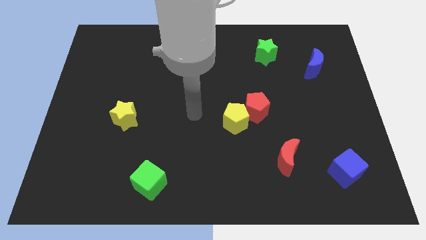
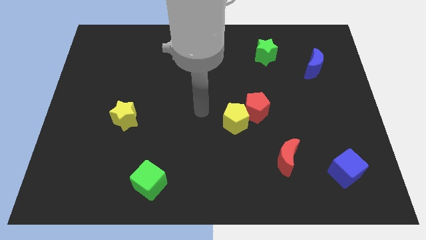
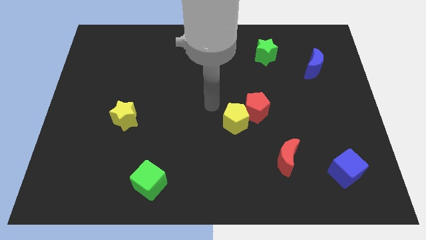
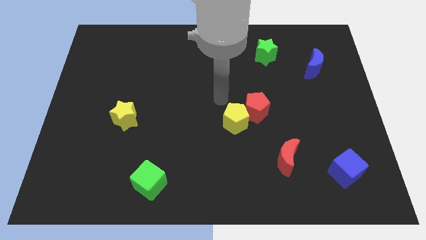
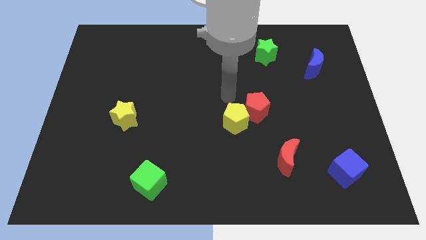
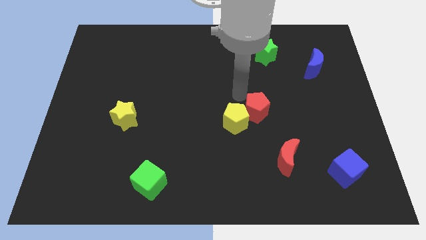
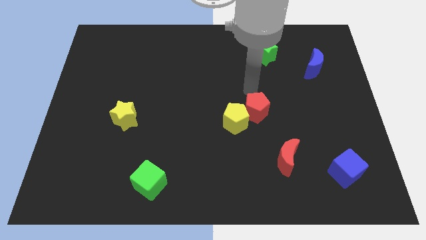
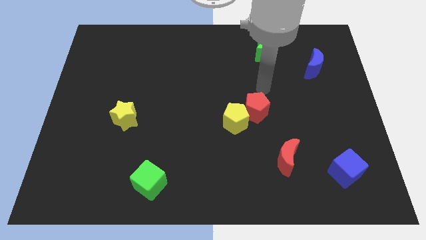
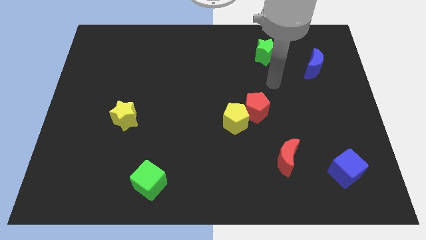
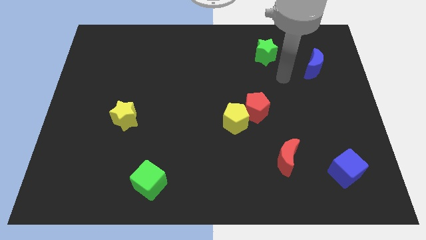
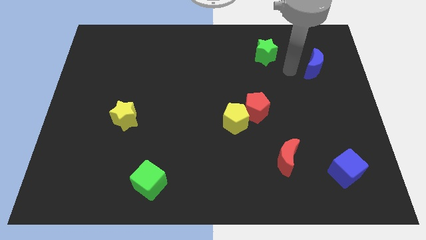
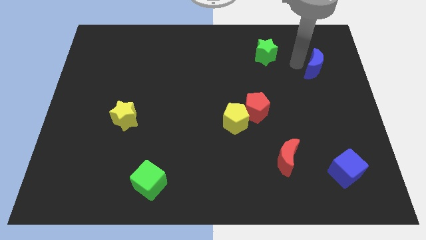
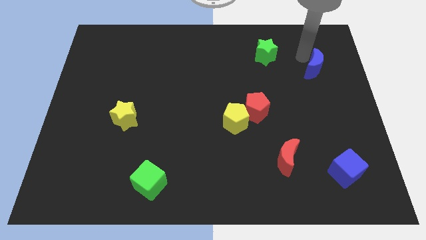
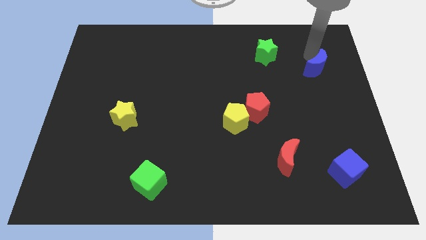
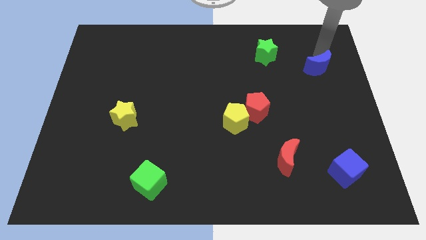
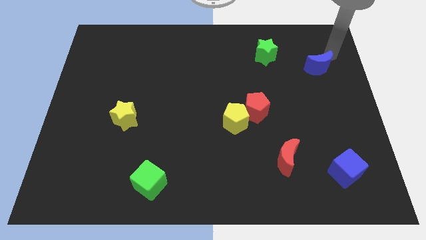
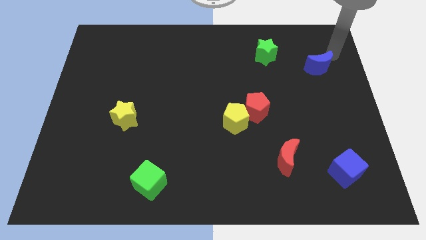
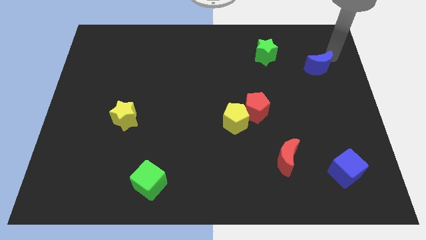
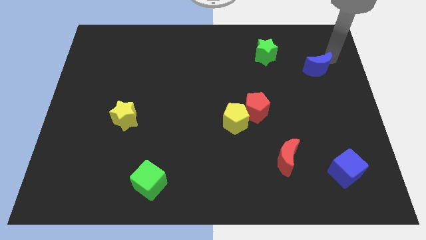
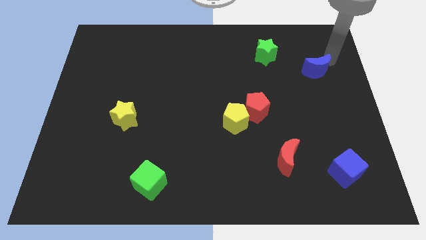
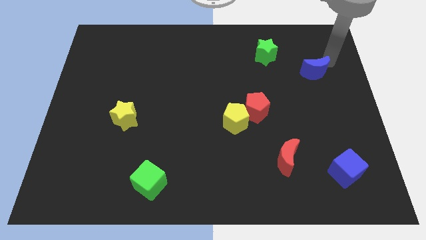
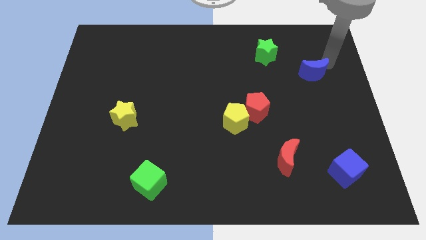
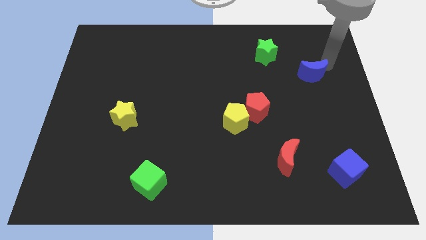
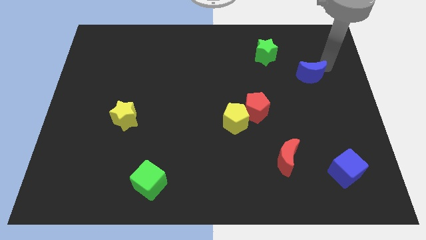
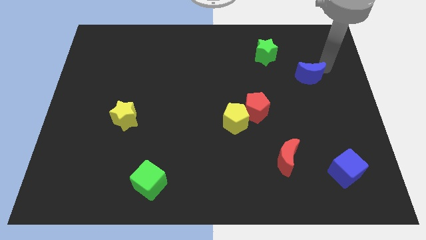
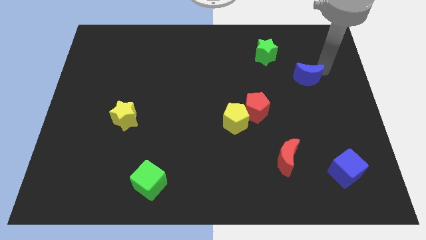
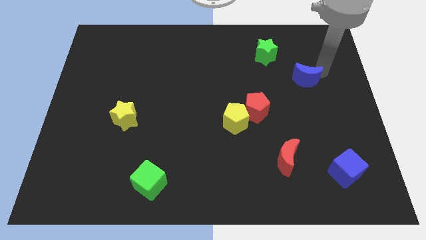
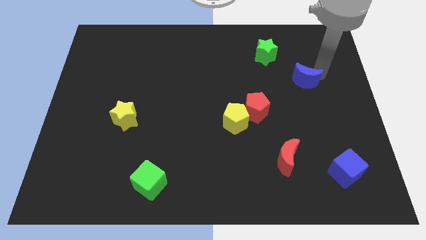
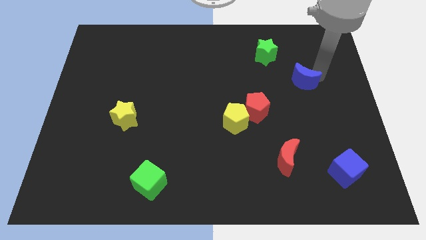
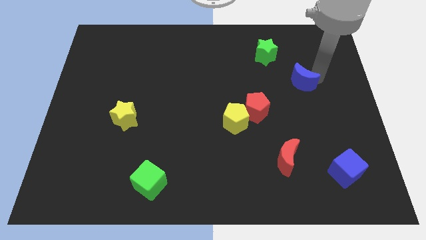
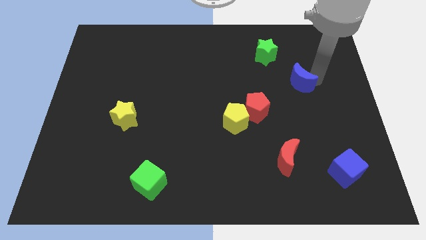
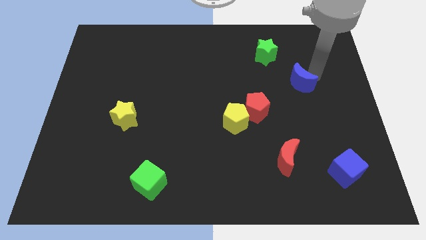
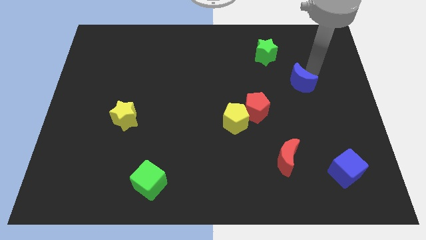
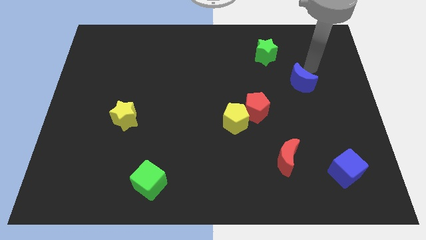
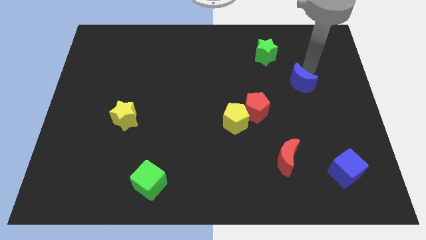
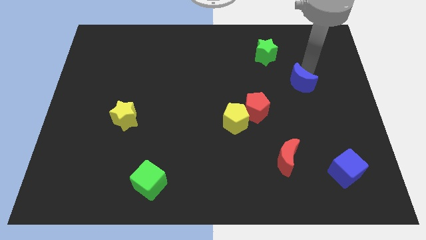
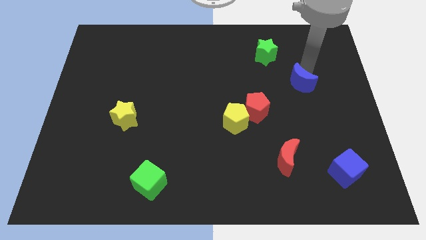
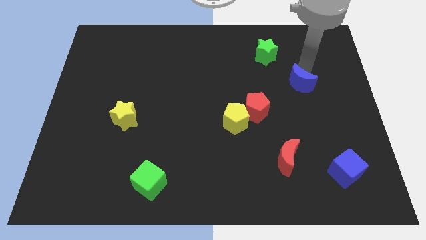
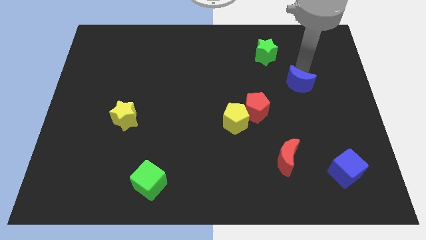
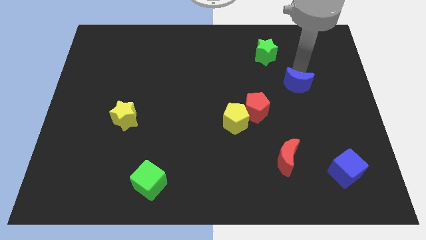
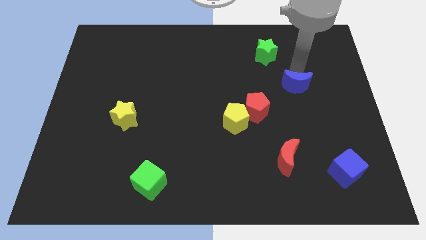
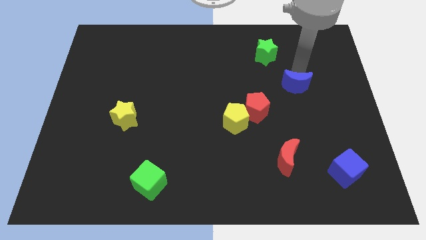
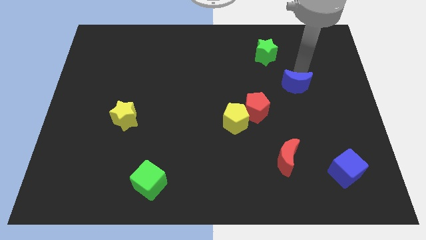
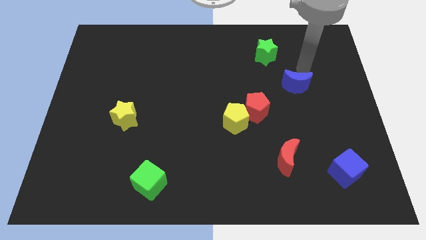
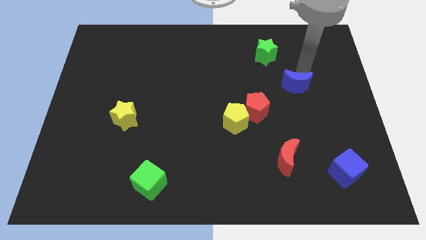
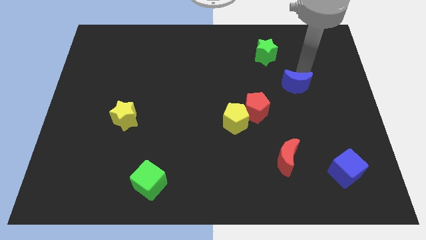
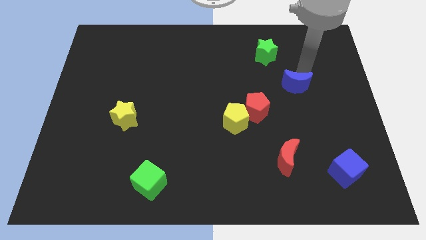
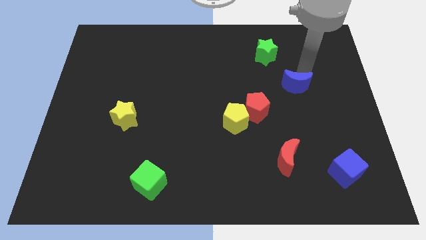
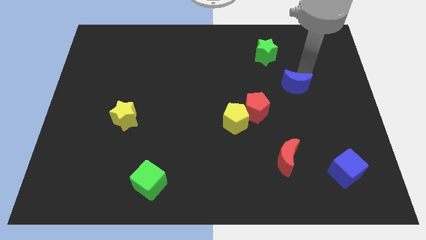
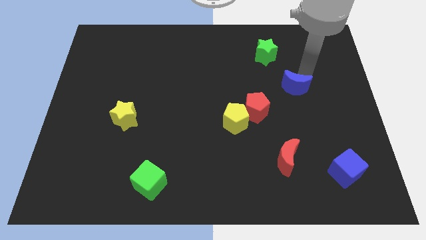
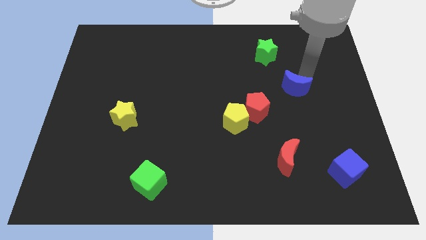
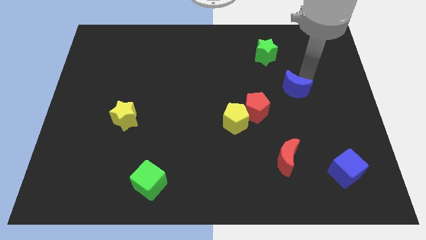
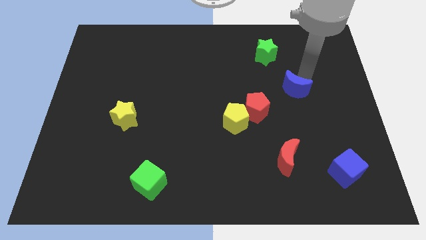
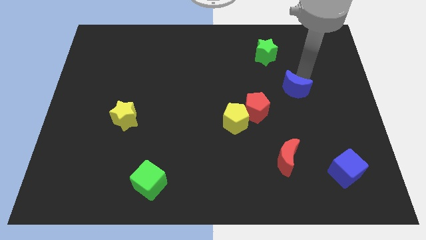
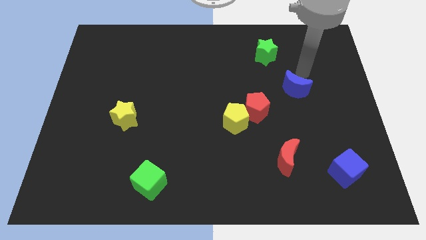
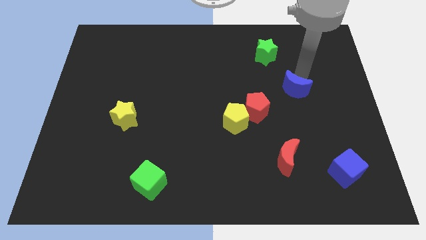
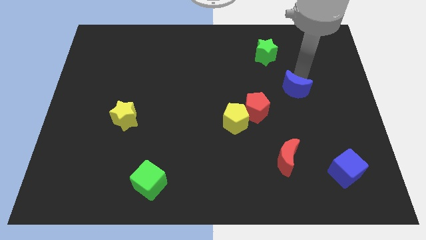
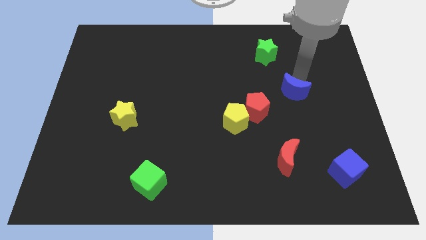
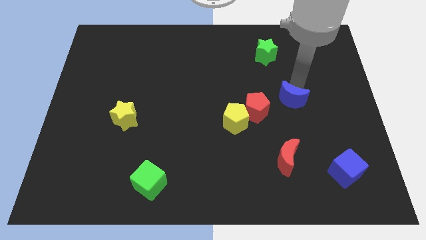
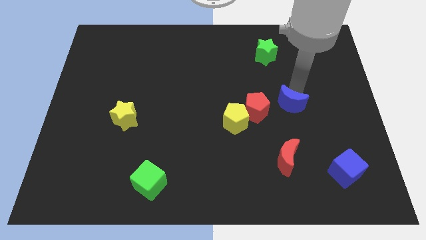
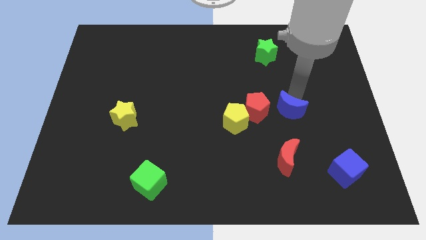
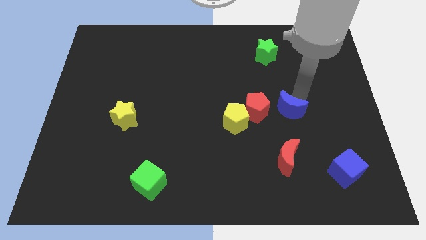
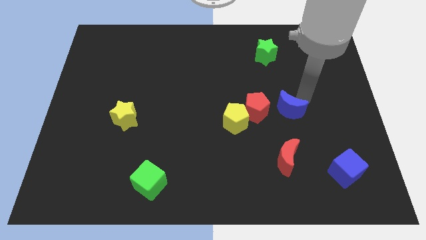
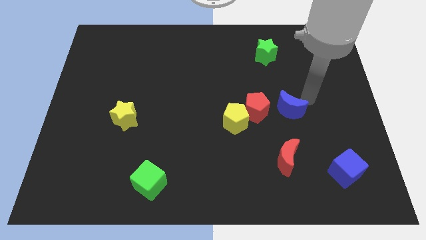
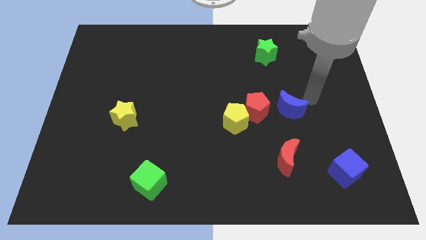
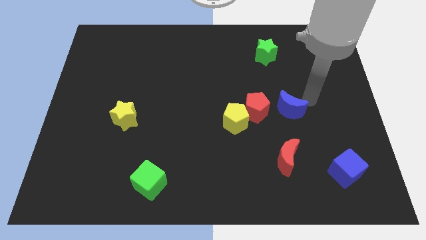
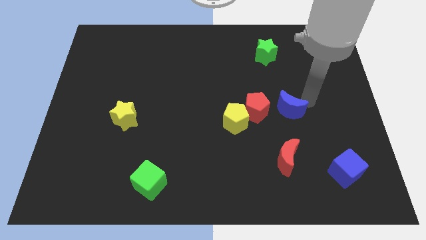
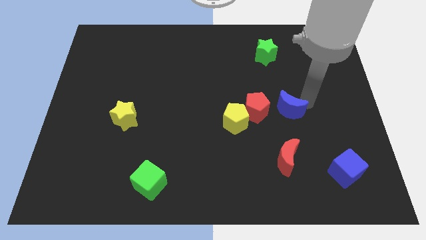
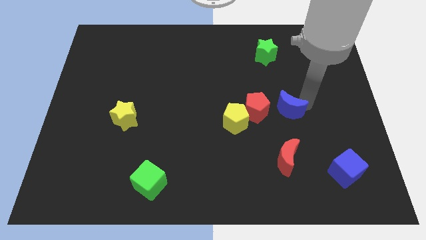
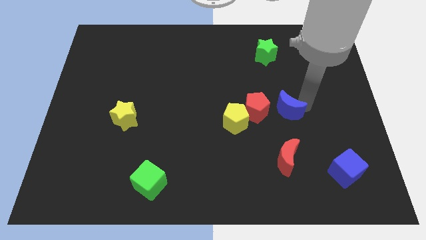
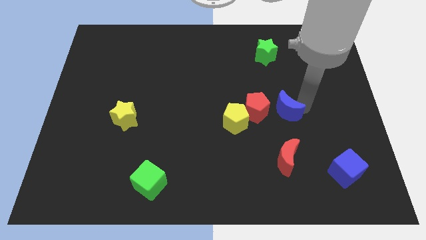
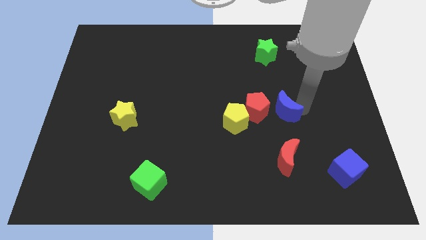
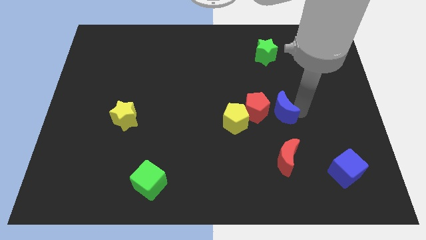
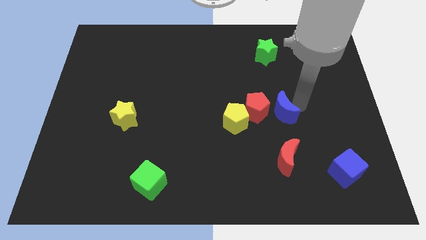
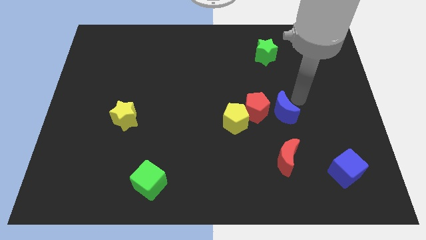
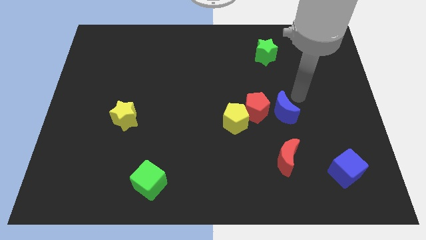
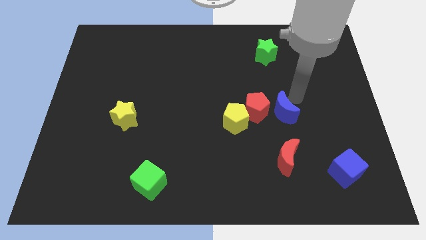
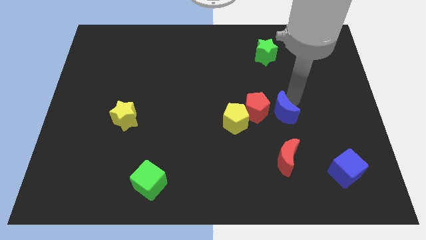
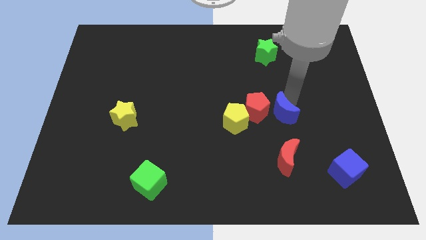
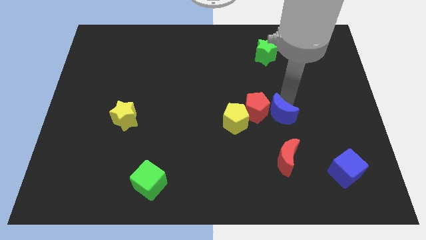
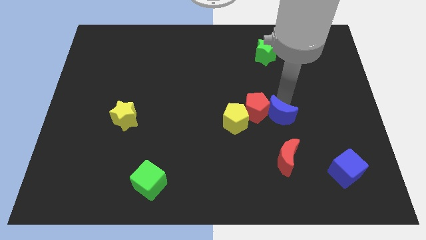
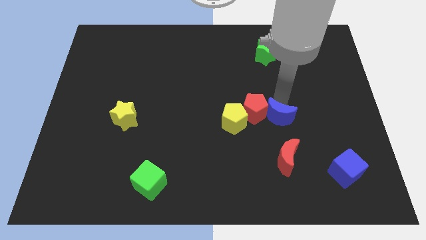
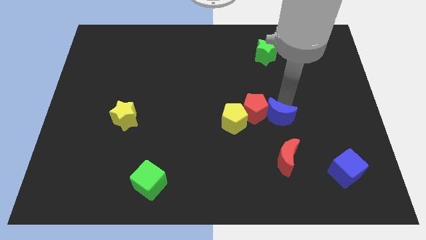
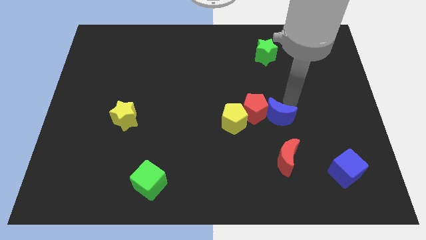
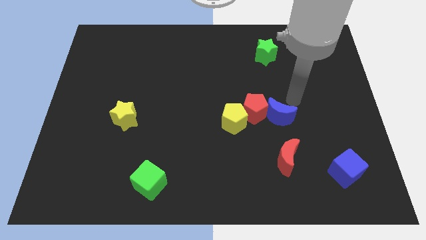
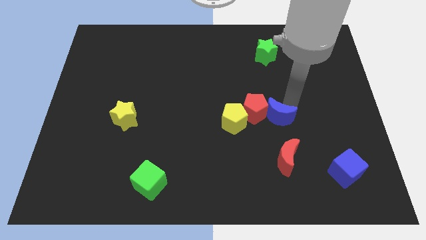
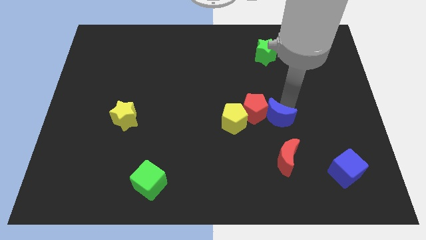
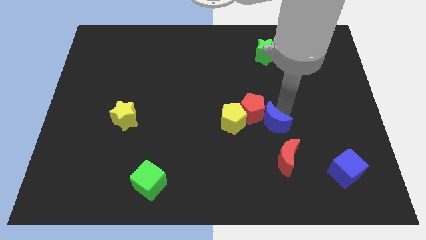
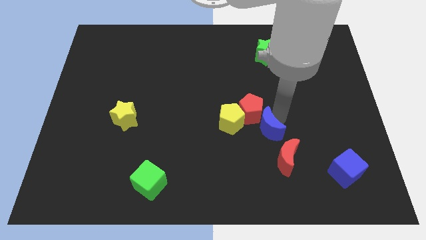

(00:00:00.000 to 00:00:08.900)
push the blue moon diagonally up and to the left of the red moon
